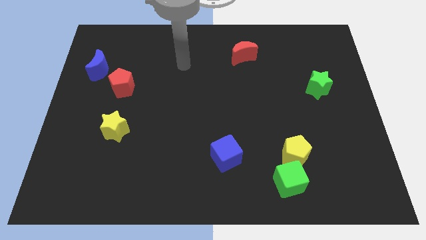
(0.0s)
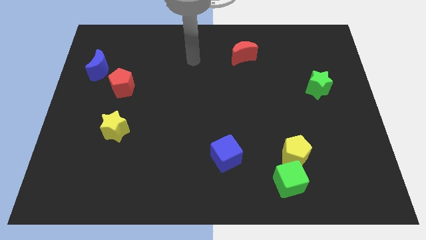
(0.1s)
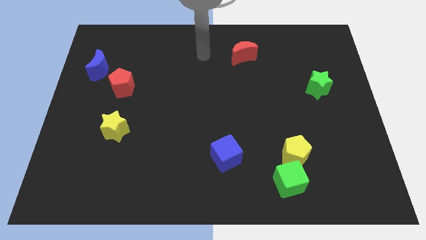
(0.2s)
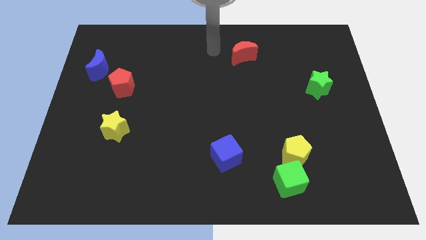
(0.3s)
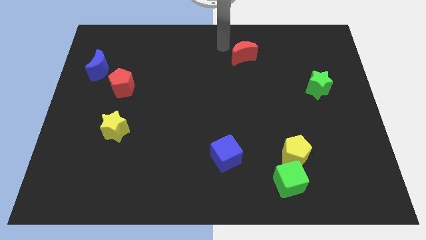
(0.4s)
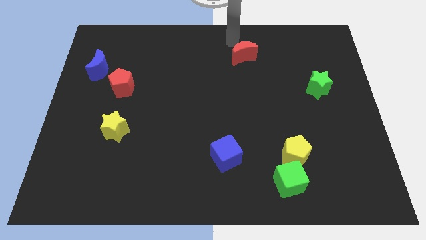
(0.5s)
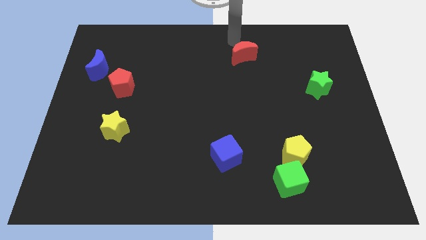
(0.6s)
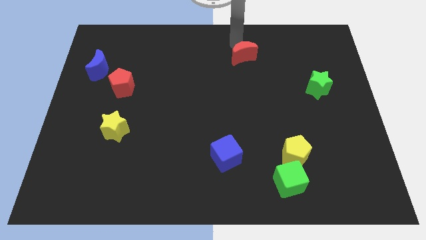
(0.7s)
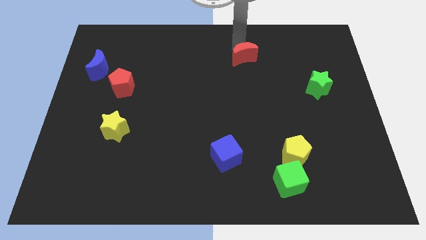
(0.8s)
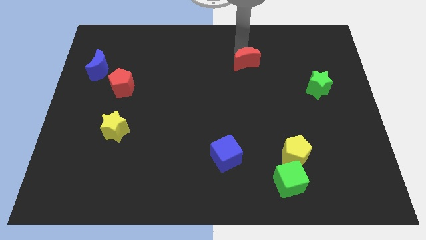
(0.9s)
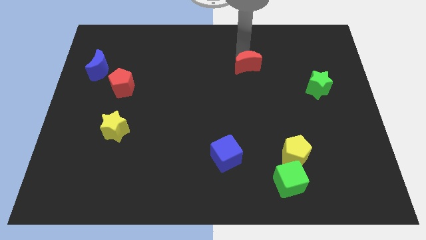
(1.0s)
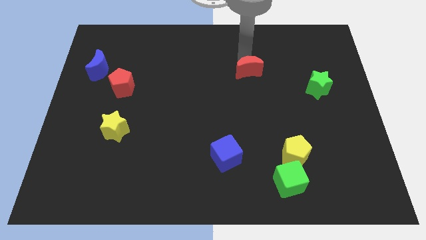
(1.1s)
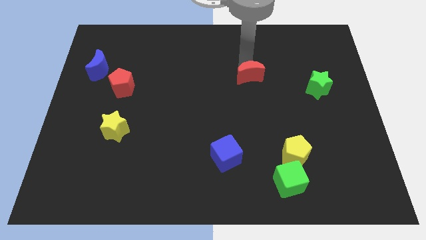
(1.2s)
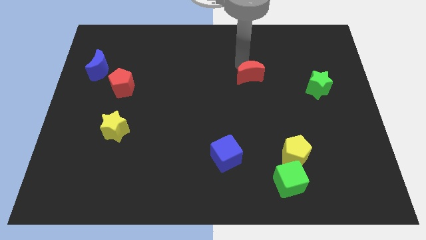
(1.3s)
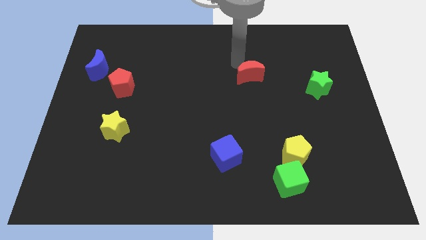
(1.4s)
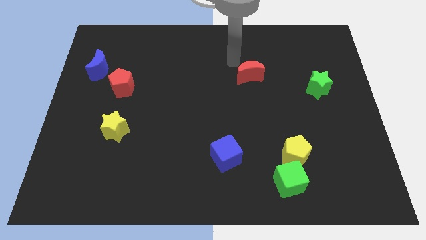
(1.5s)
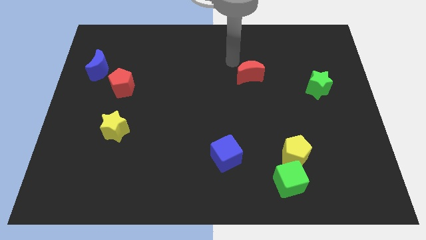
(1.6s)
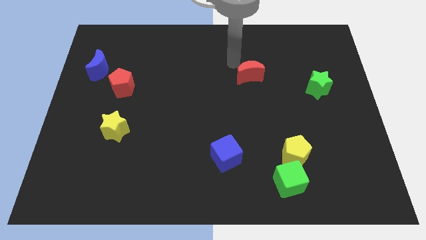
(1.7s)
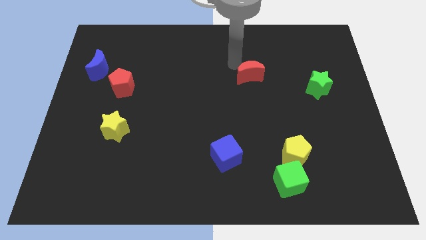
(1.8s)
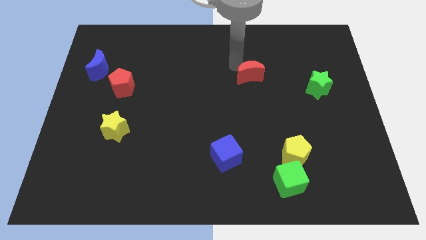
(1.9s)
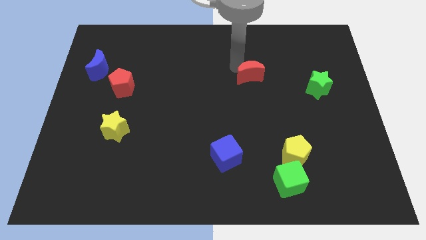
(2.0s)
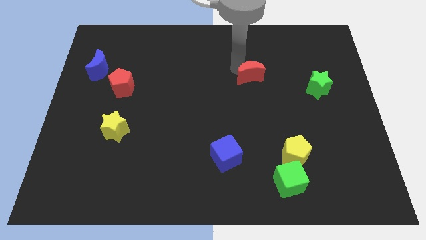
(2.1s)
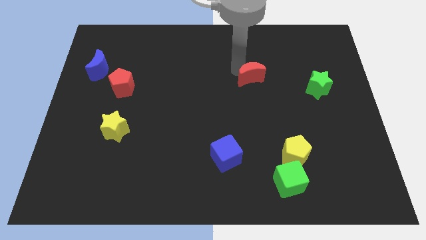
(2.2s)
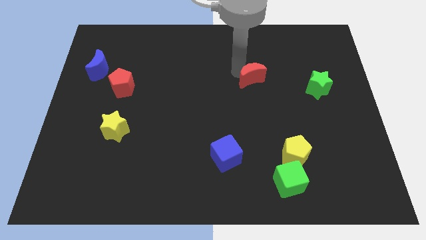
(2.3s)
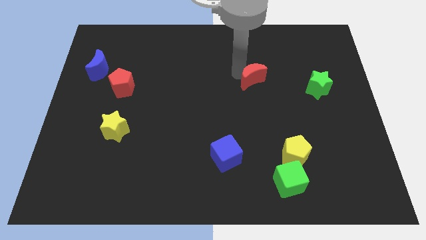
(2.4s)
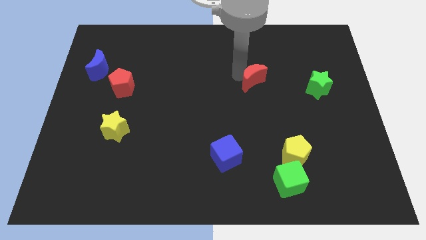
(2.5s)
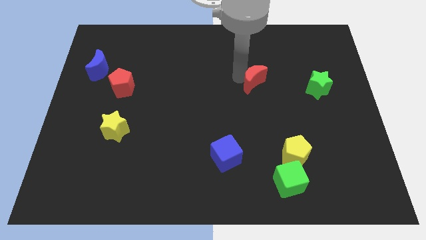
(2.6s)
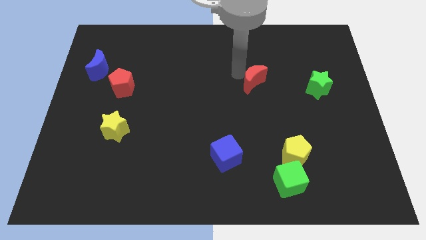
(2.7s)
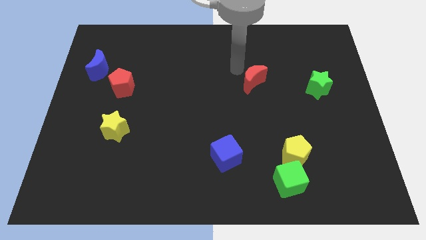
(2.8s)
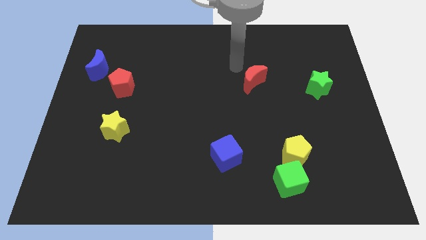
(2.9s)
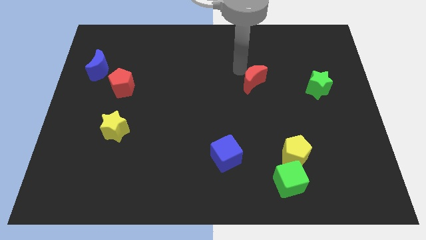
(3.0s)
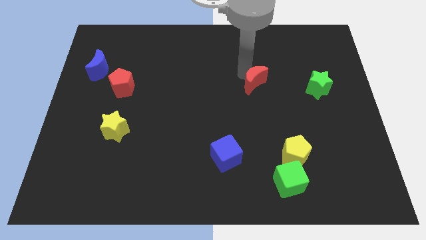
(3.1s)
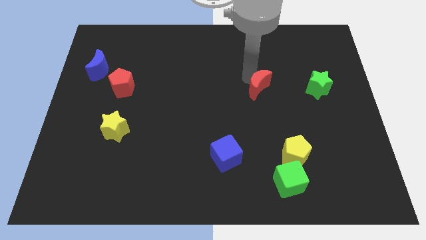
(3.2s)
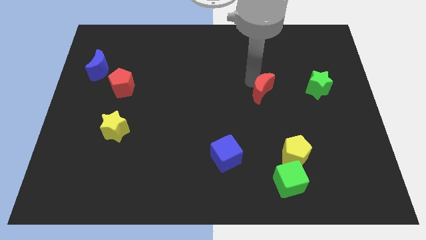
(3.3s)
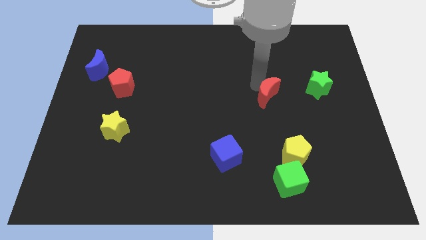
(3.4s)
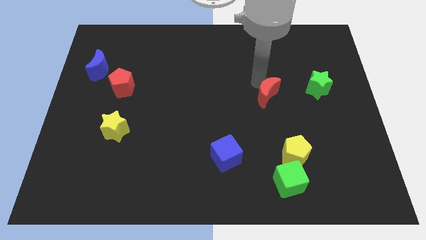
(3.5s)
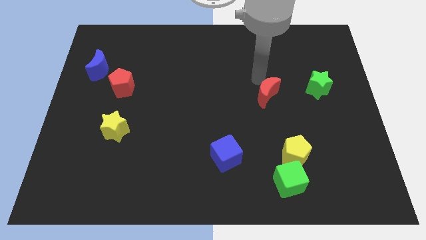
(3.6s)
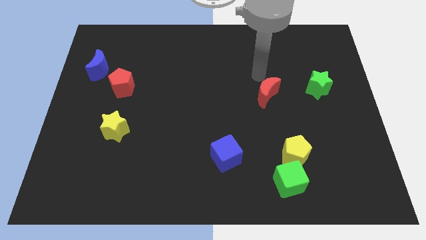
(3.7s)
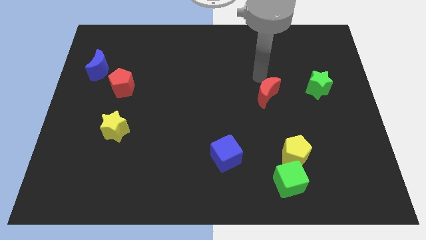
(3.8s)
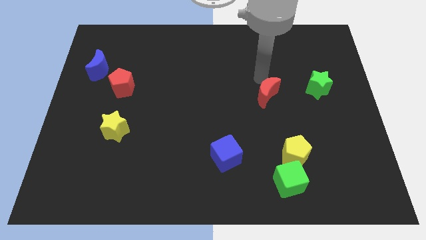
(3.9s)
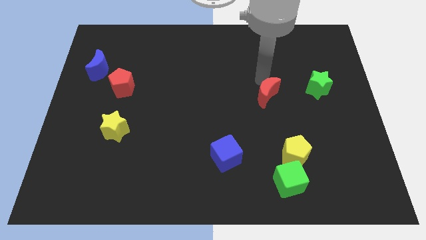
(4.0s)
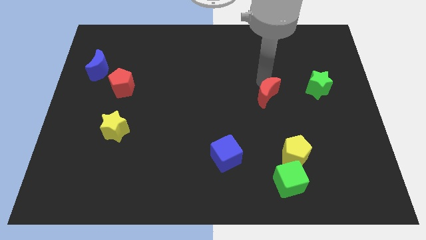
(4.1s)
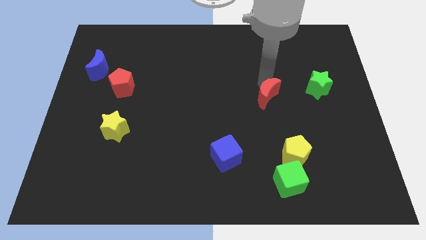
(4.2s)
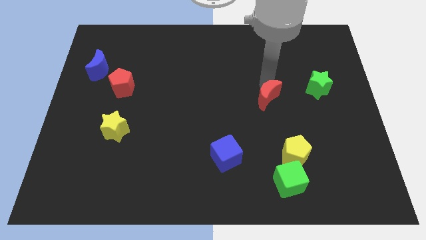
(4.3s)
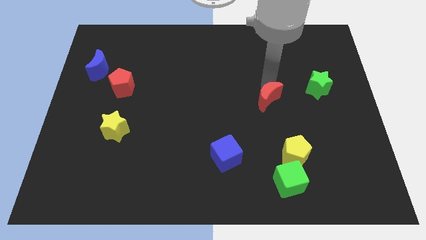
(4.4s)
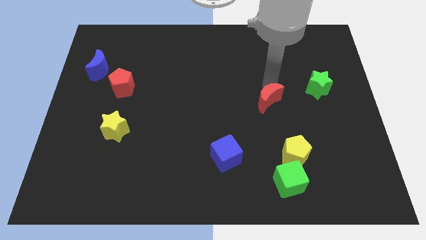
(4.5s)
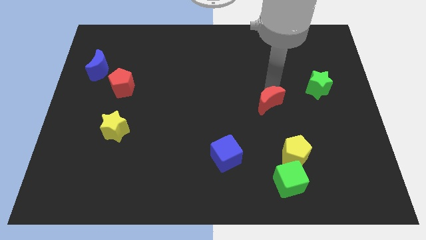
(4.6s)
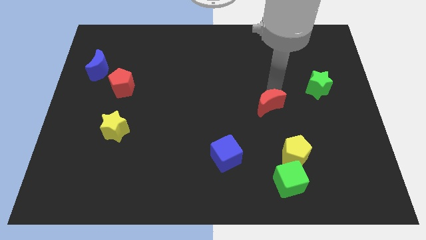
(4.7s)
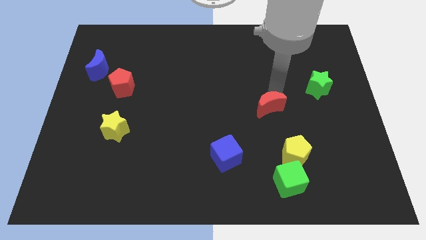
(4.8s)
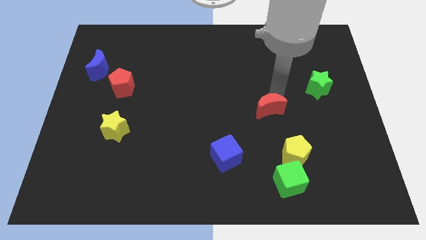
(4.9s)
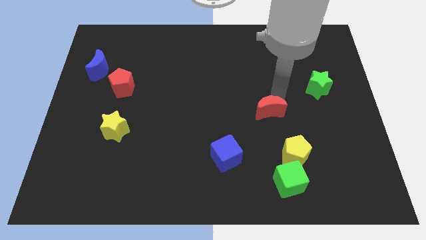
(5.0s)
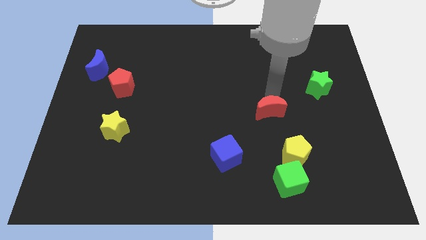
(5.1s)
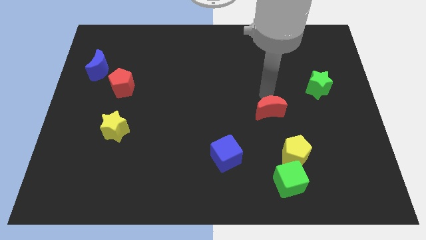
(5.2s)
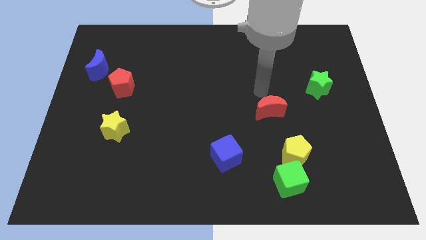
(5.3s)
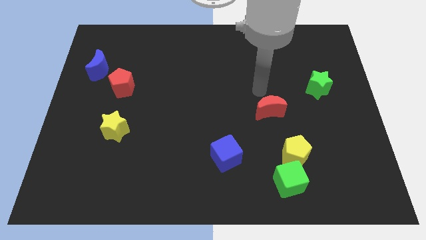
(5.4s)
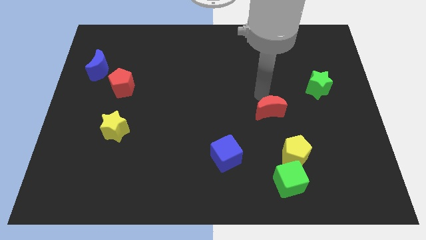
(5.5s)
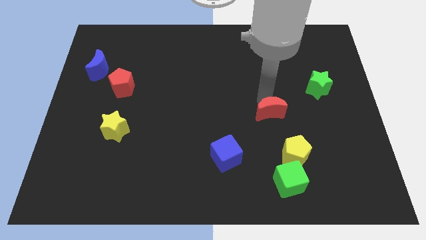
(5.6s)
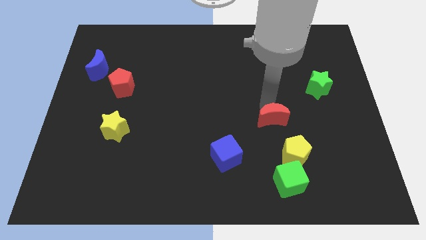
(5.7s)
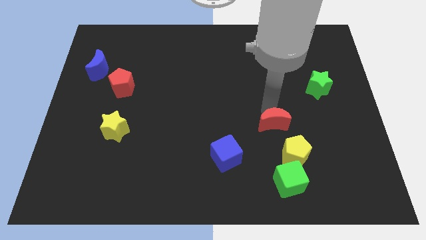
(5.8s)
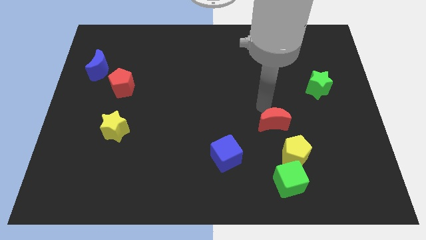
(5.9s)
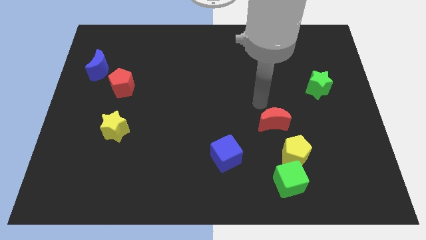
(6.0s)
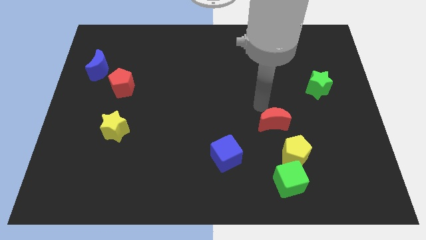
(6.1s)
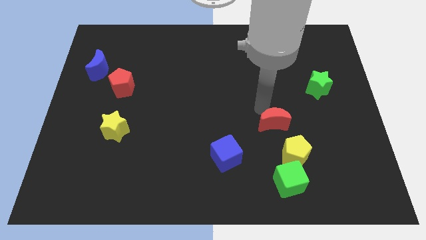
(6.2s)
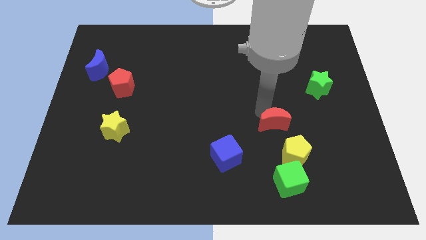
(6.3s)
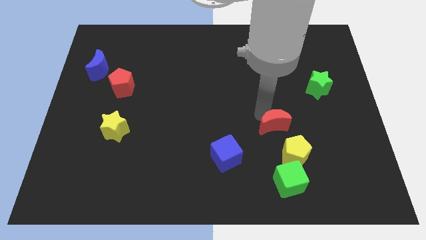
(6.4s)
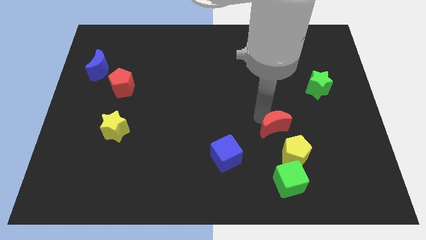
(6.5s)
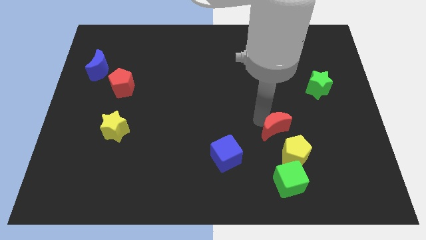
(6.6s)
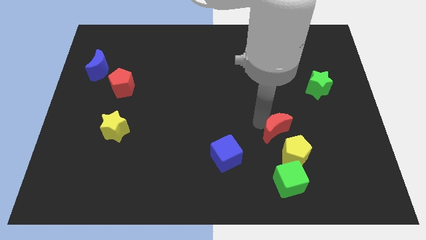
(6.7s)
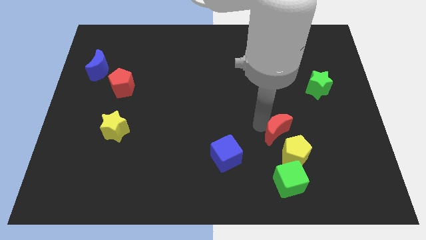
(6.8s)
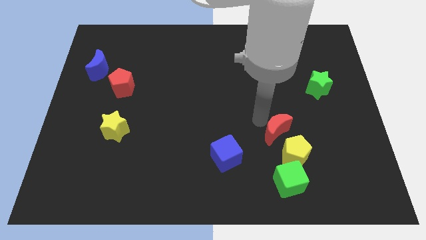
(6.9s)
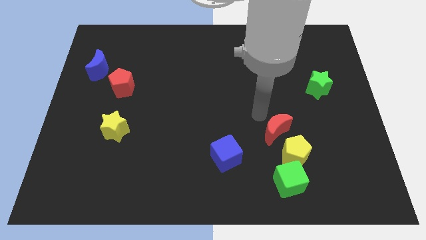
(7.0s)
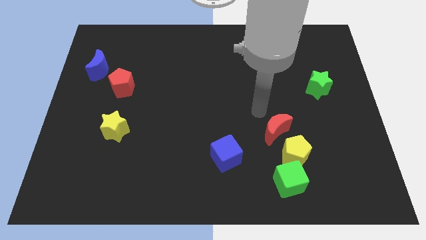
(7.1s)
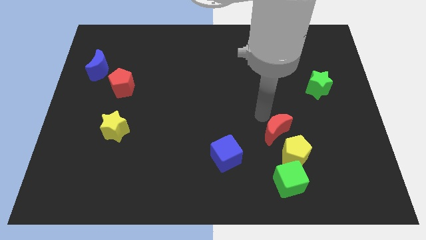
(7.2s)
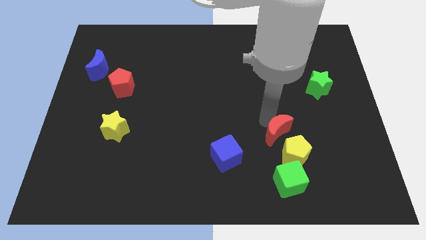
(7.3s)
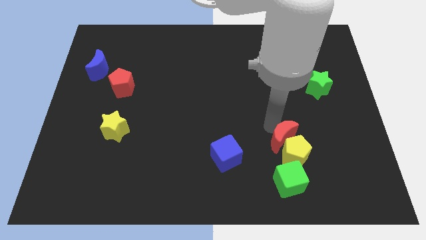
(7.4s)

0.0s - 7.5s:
slide the red moon towards the yellow pentagon

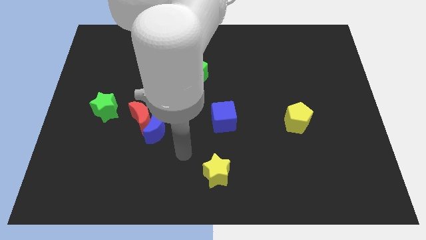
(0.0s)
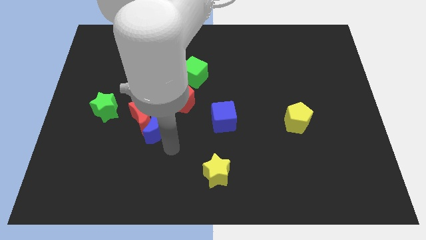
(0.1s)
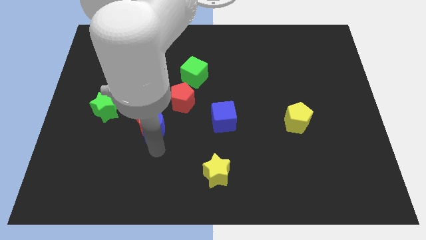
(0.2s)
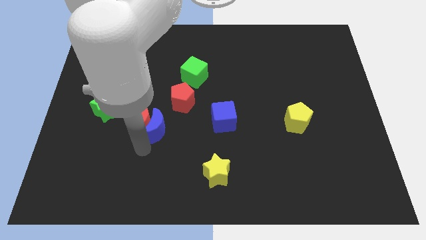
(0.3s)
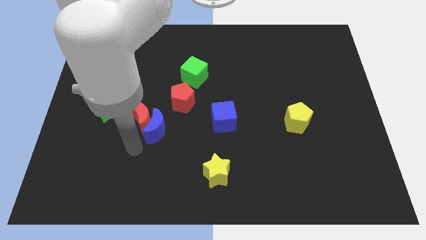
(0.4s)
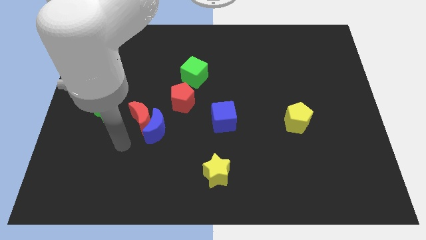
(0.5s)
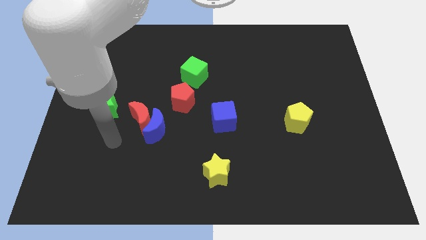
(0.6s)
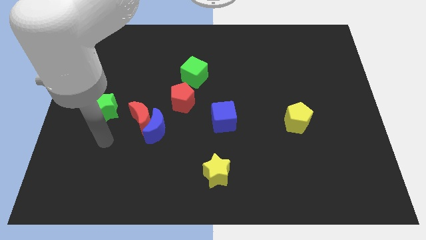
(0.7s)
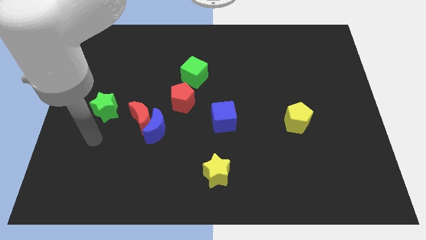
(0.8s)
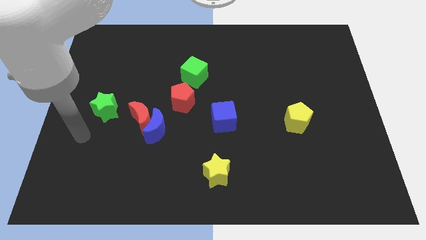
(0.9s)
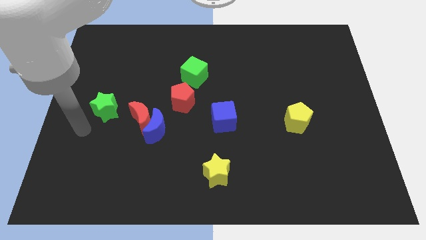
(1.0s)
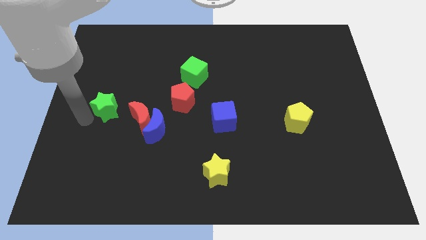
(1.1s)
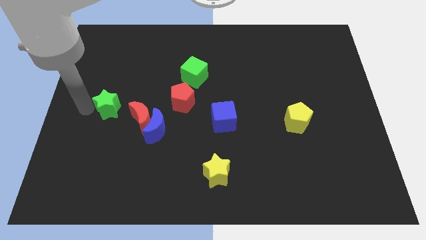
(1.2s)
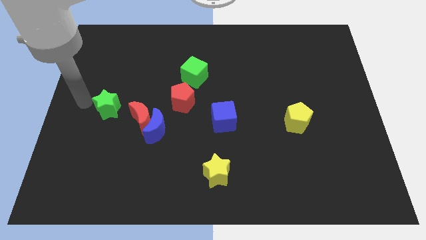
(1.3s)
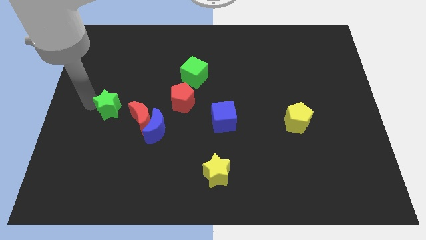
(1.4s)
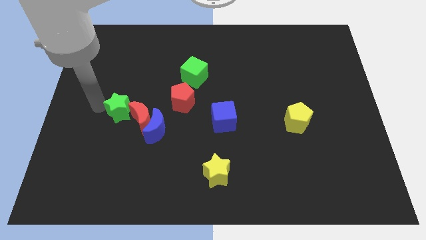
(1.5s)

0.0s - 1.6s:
put the green star towards the red moon
